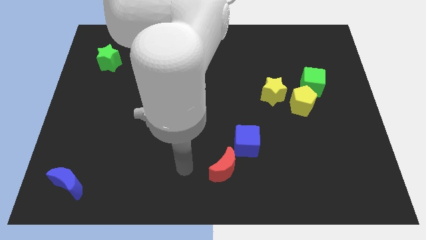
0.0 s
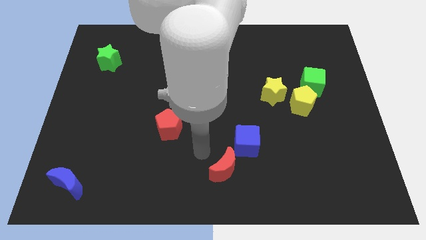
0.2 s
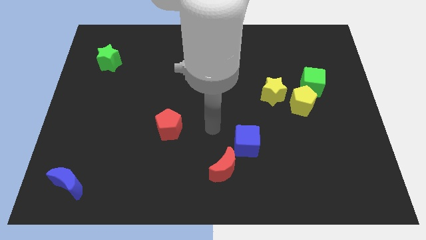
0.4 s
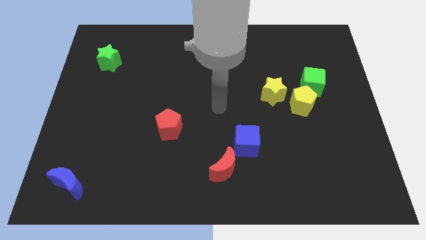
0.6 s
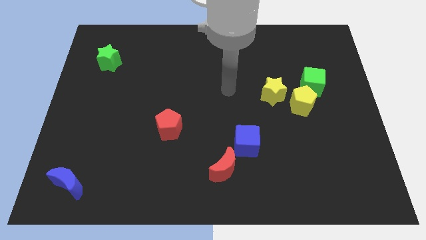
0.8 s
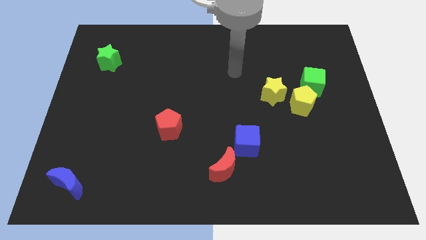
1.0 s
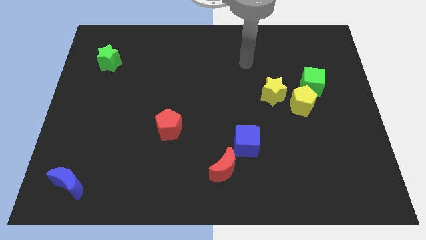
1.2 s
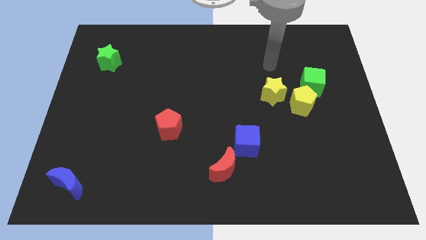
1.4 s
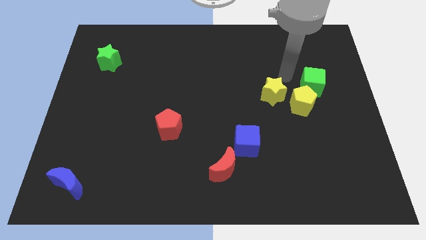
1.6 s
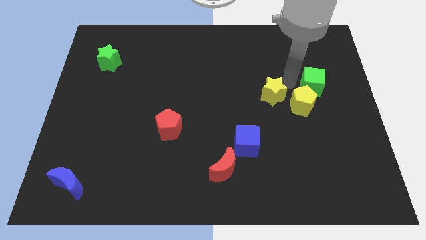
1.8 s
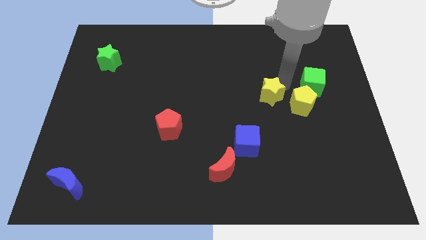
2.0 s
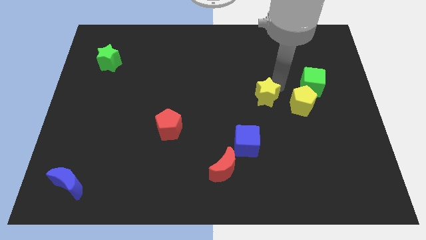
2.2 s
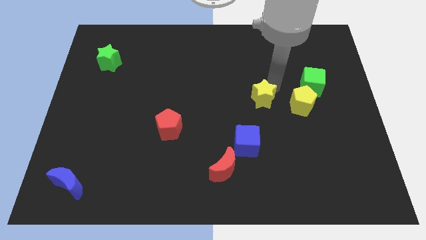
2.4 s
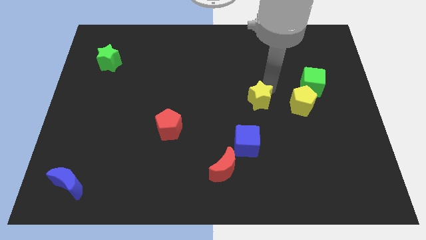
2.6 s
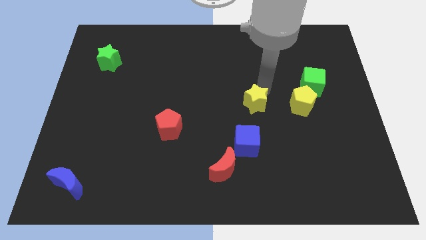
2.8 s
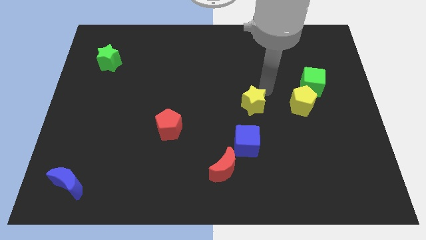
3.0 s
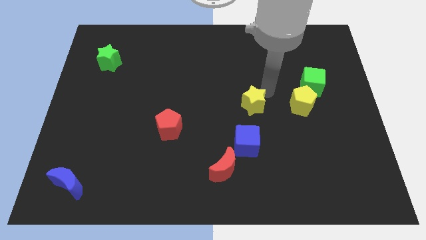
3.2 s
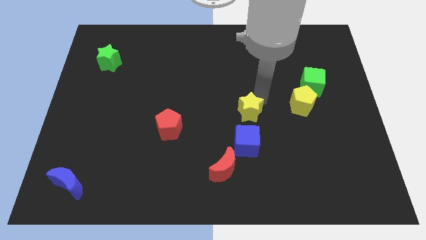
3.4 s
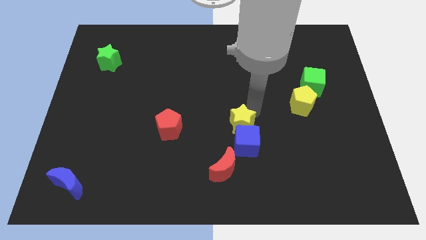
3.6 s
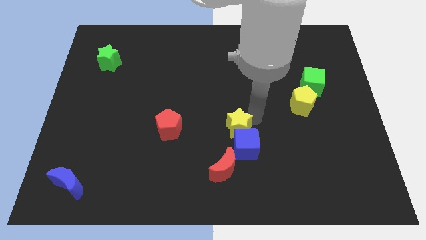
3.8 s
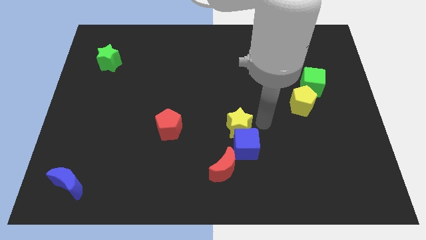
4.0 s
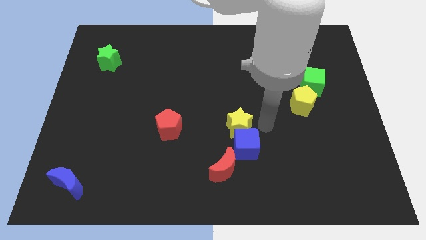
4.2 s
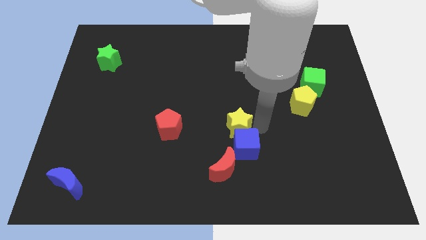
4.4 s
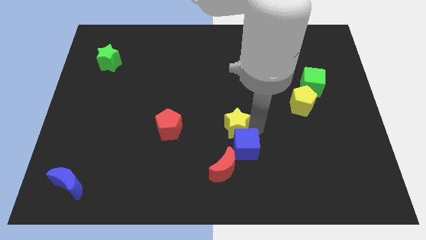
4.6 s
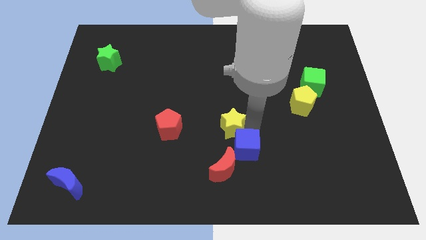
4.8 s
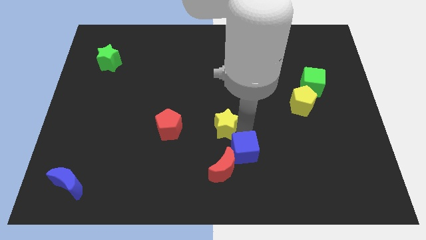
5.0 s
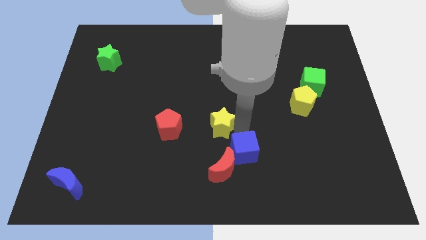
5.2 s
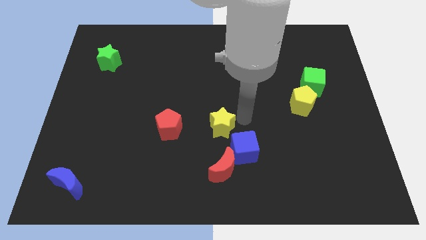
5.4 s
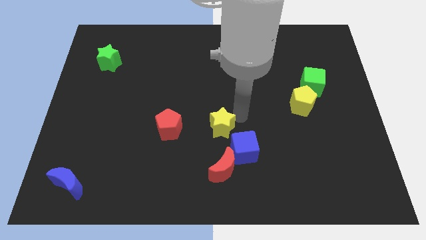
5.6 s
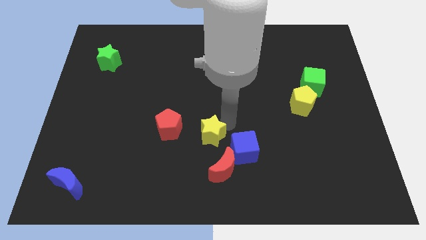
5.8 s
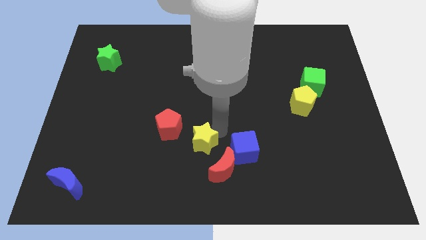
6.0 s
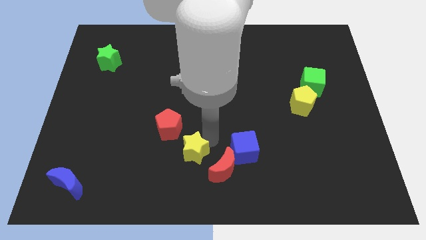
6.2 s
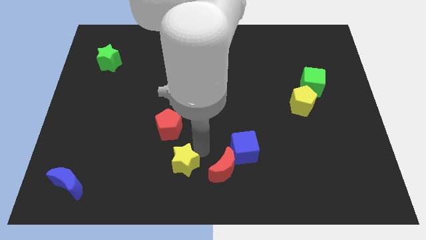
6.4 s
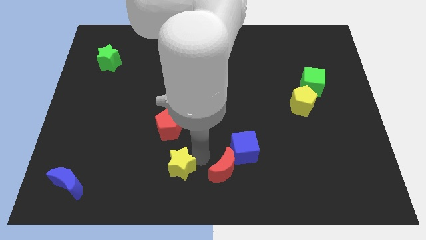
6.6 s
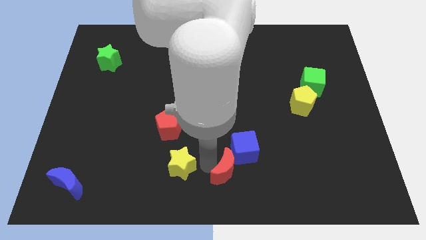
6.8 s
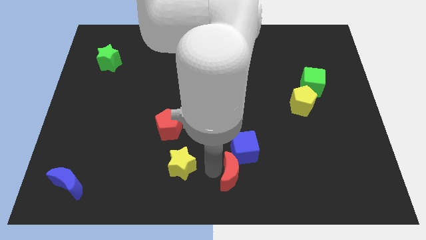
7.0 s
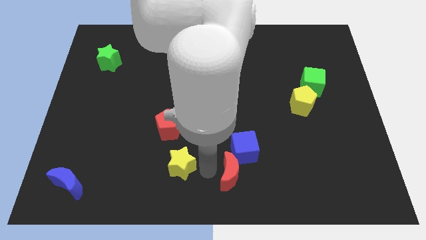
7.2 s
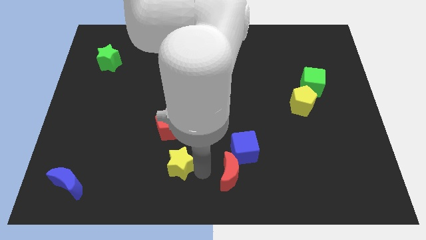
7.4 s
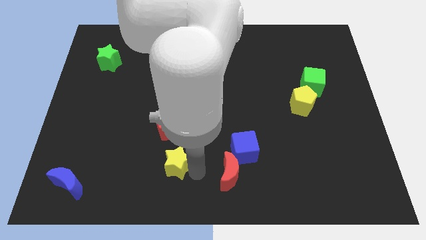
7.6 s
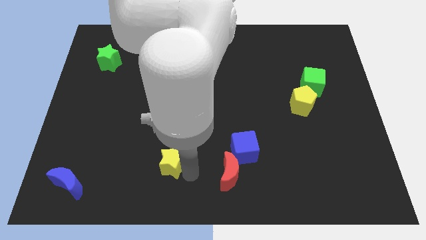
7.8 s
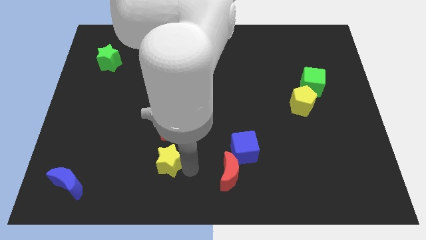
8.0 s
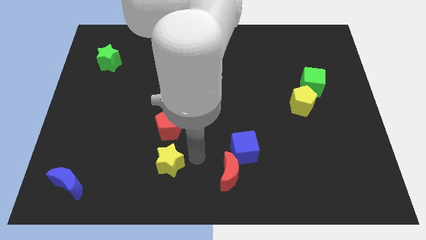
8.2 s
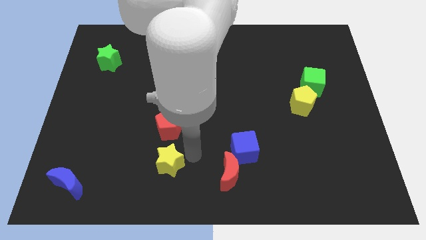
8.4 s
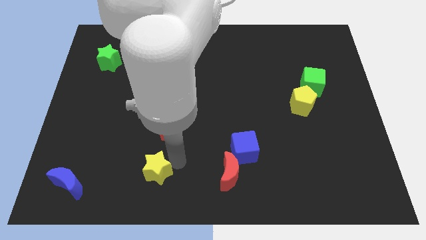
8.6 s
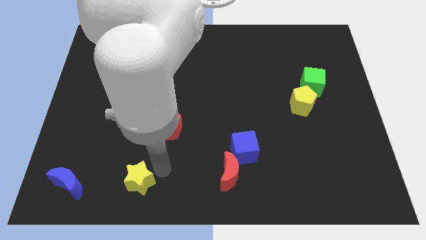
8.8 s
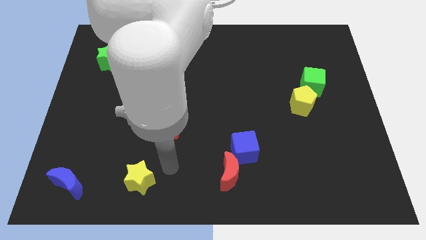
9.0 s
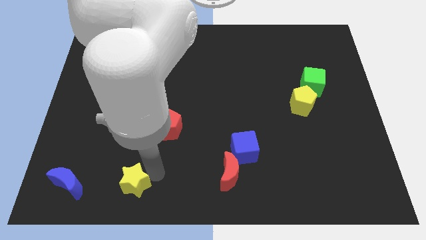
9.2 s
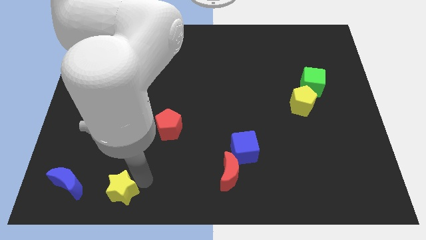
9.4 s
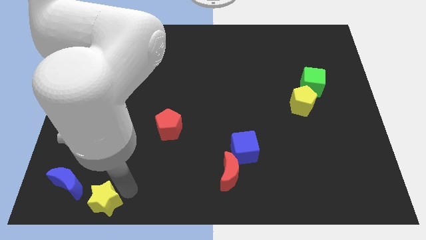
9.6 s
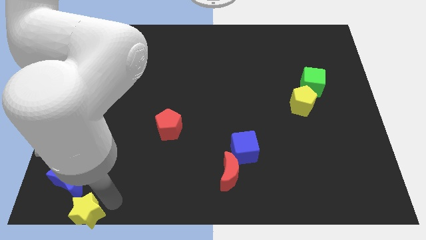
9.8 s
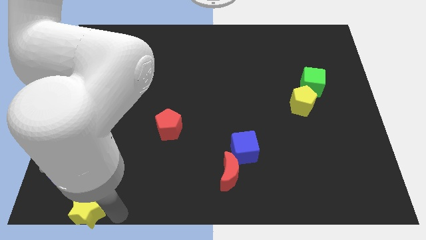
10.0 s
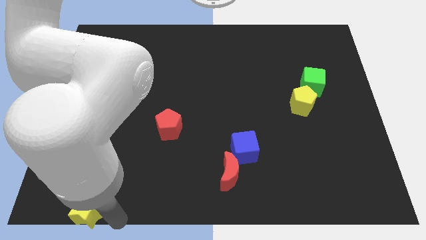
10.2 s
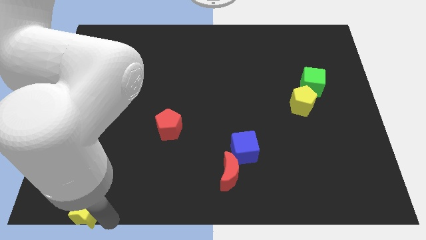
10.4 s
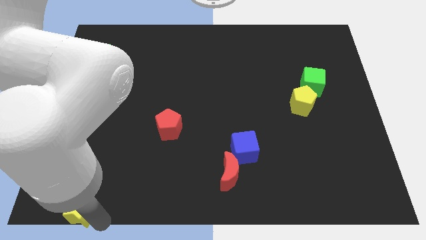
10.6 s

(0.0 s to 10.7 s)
push the yellow star to the lower left corner
